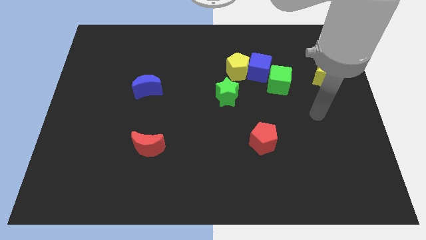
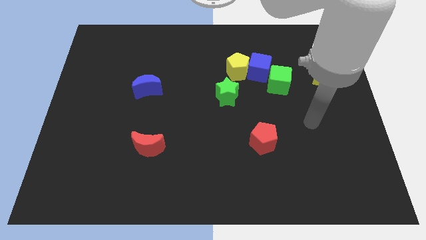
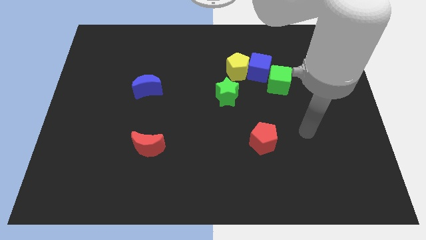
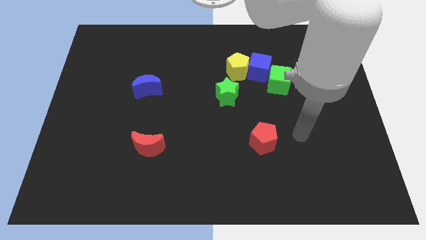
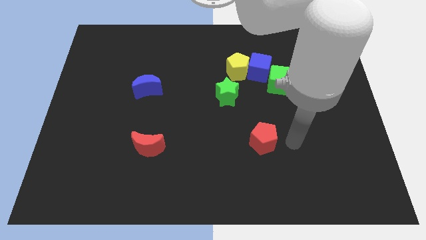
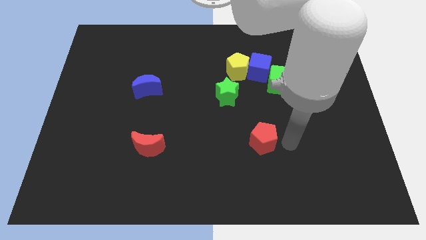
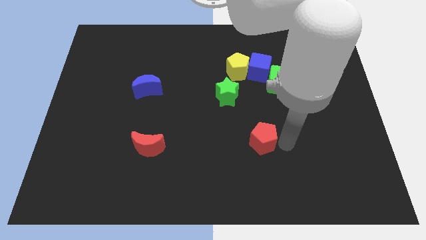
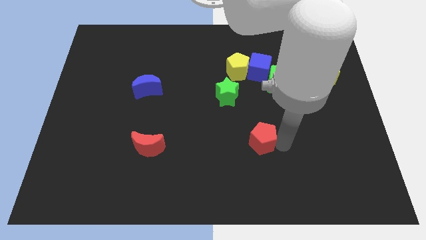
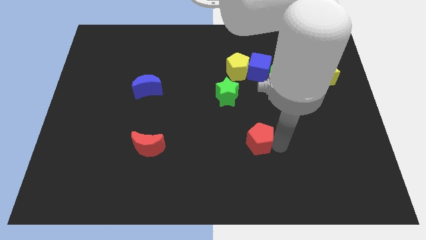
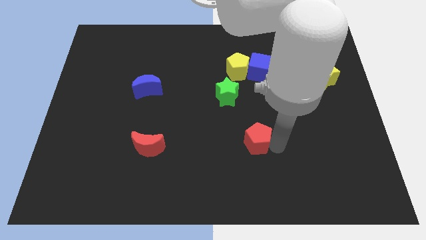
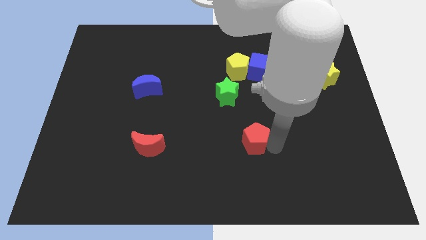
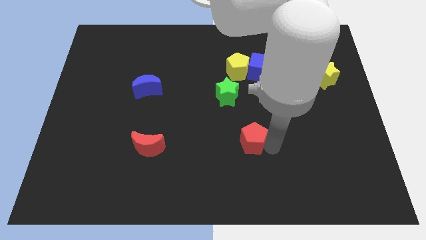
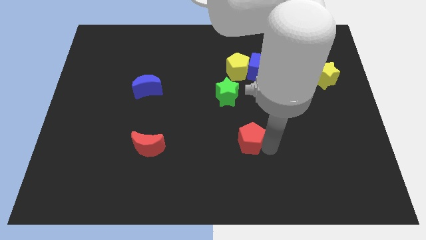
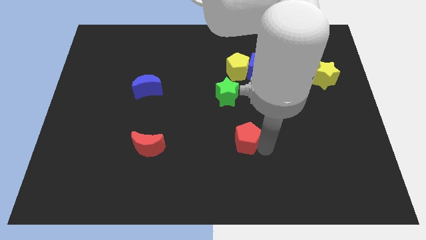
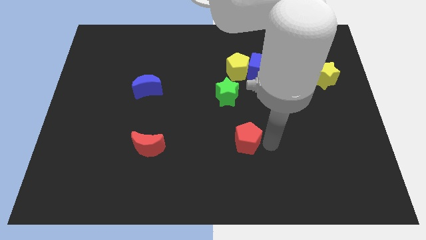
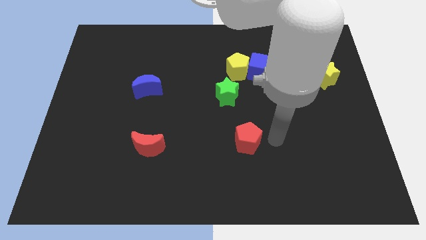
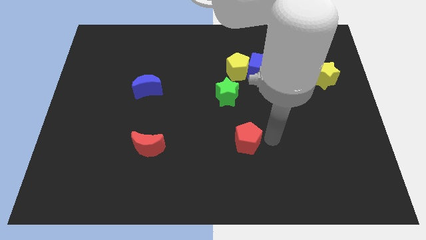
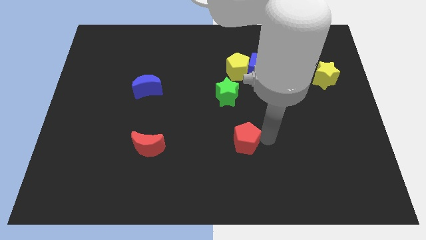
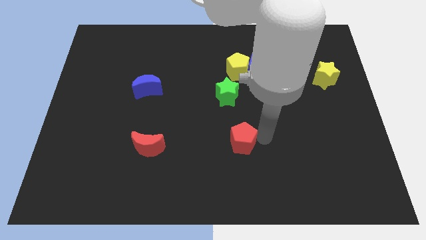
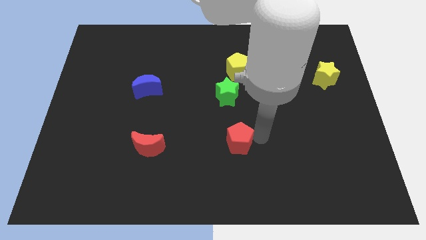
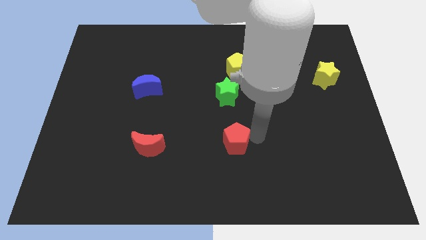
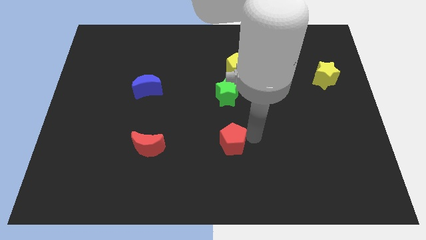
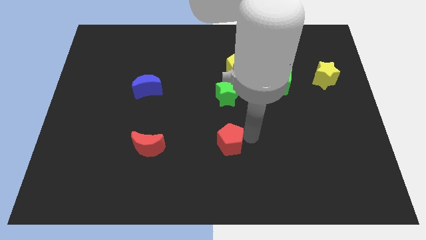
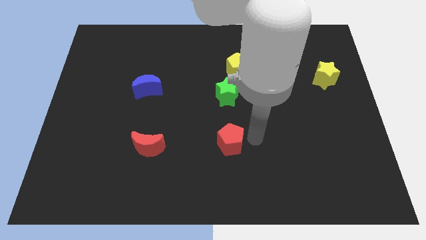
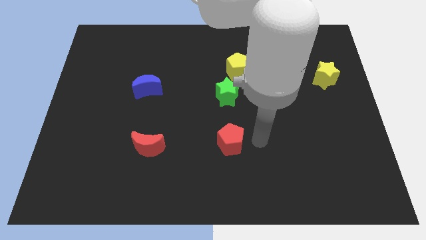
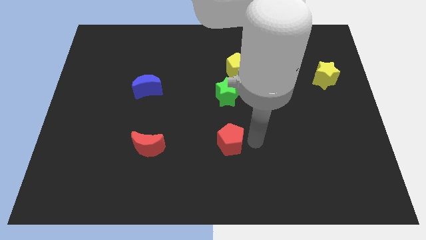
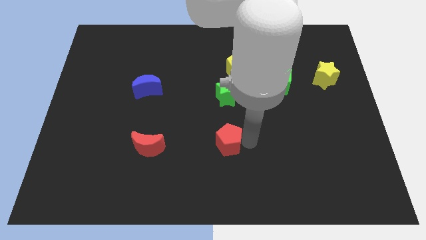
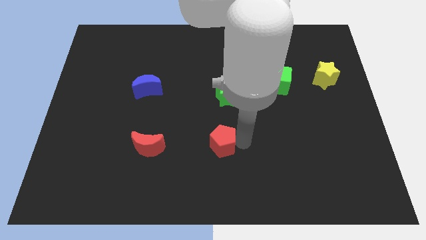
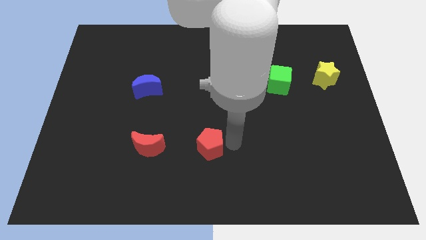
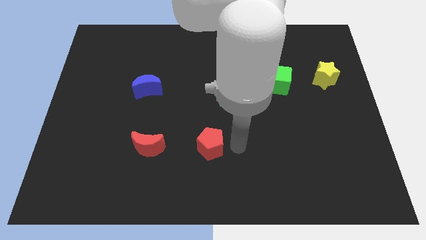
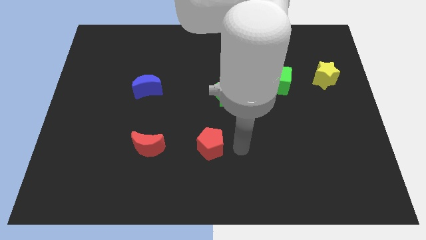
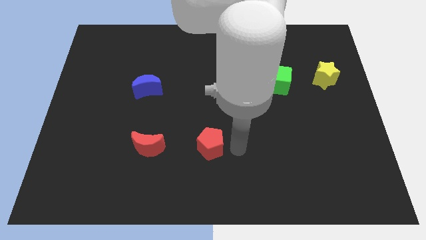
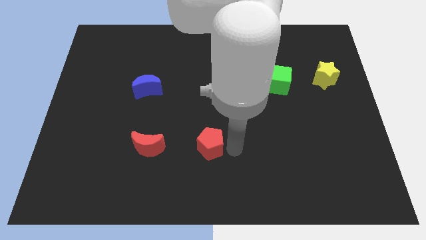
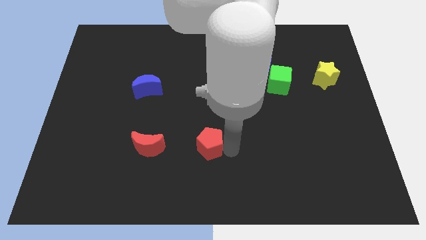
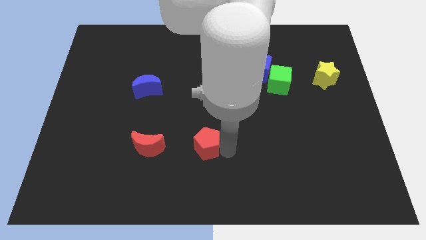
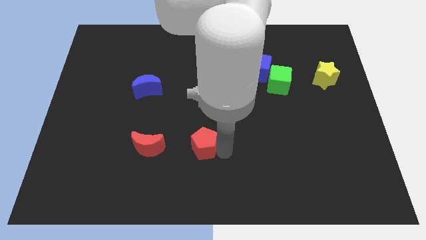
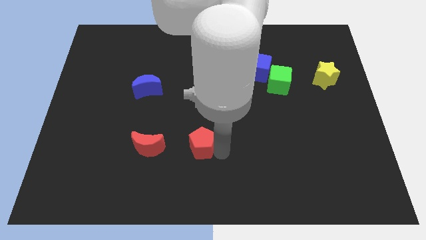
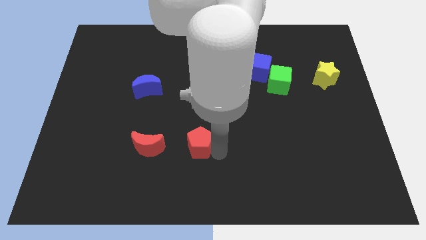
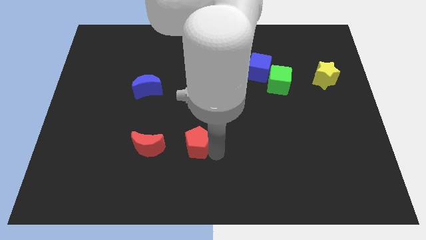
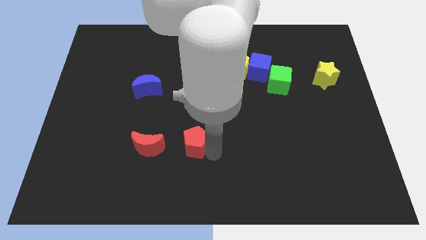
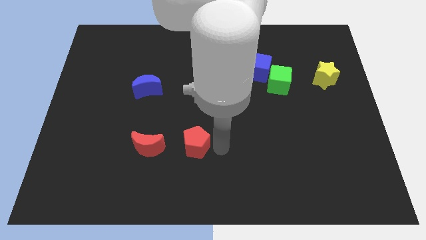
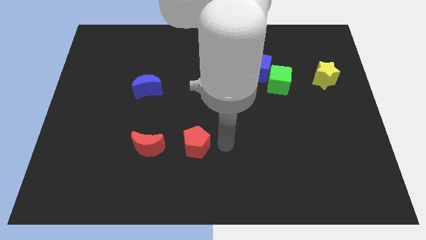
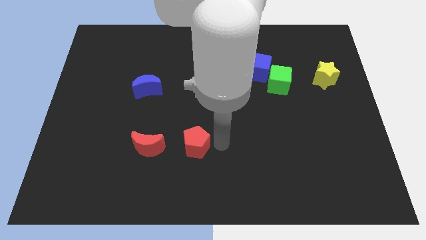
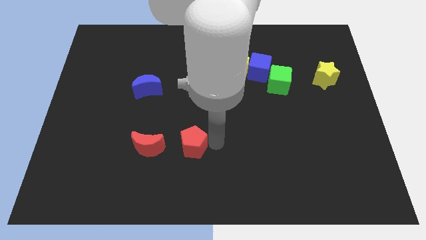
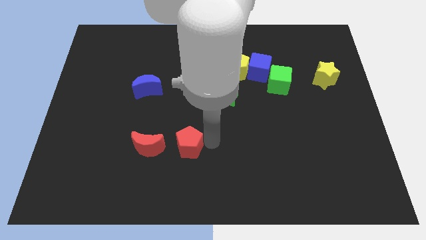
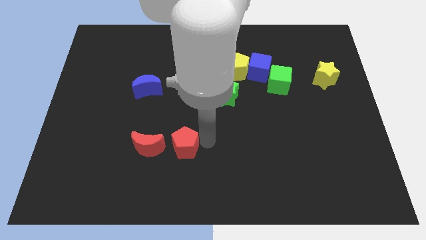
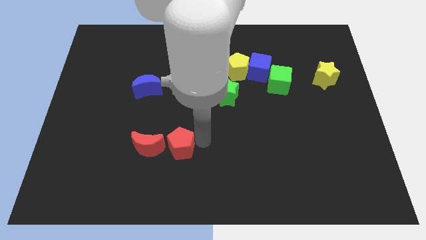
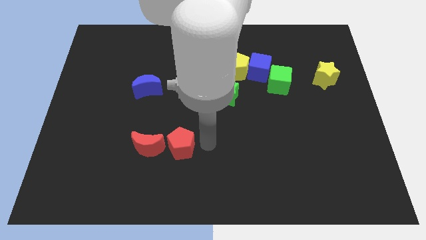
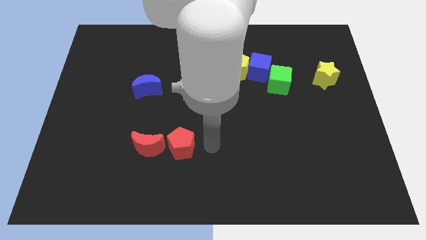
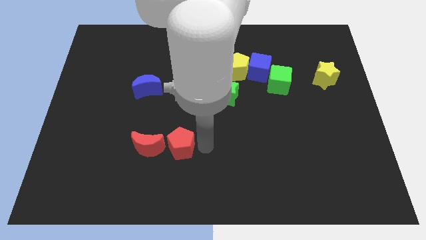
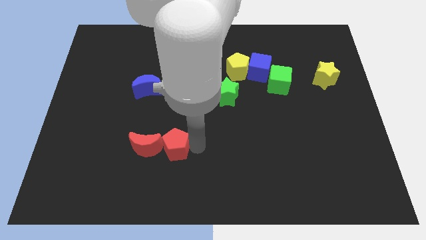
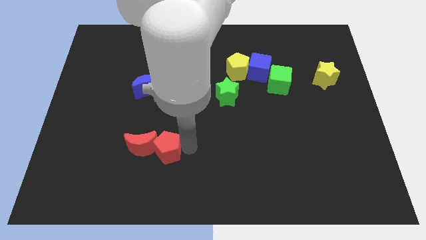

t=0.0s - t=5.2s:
put the red pentagon close to the red moon

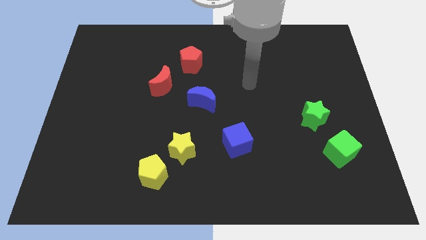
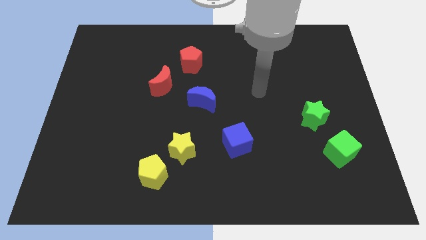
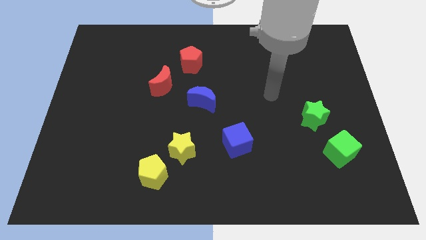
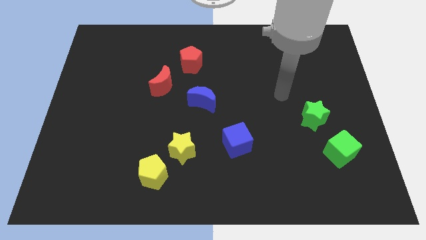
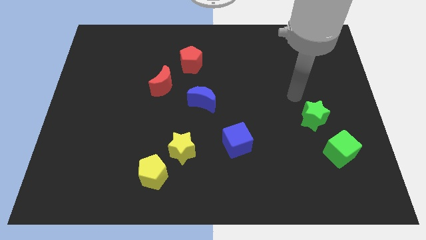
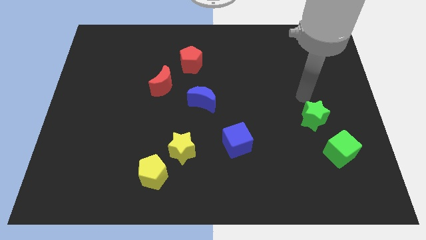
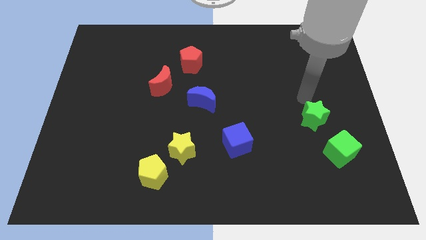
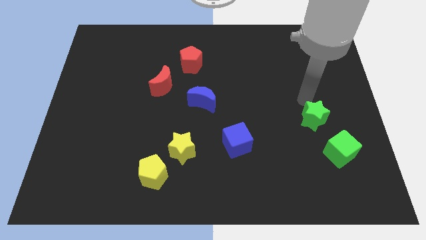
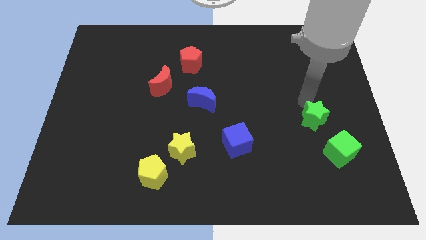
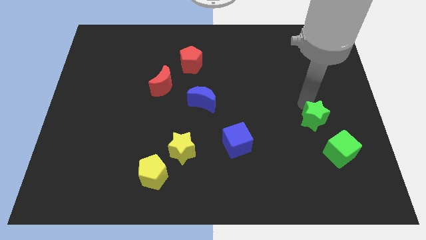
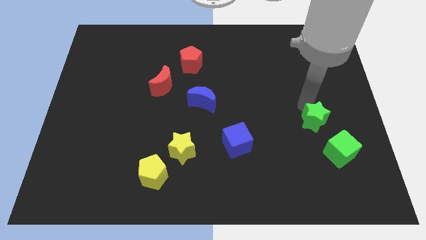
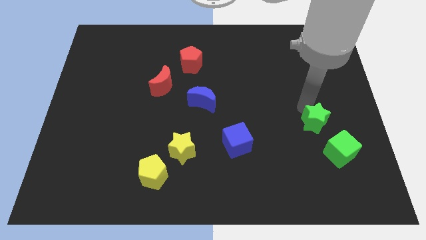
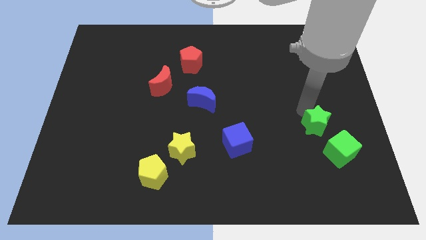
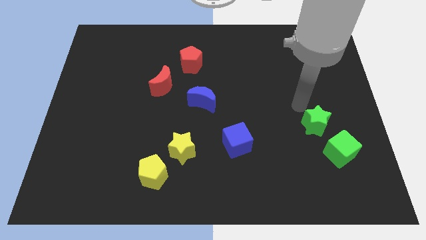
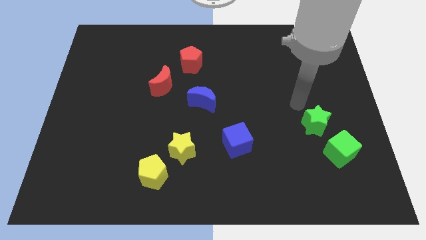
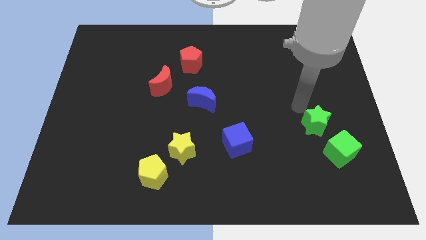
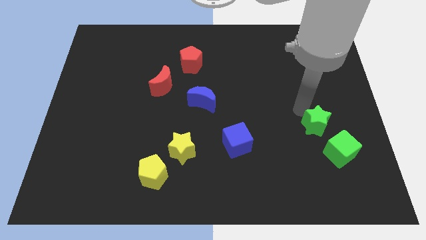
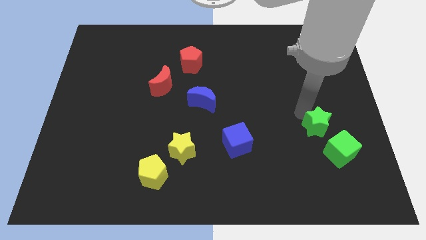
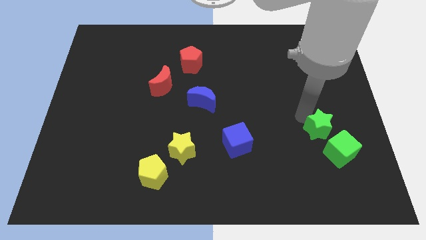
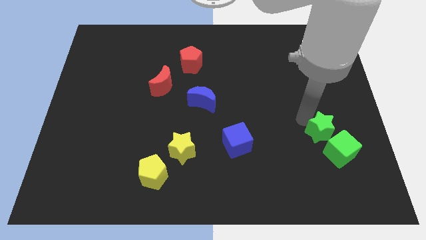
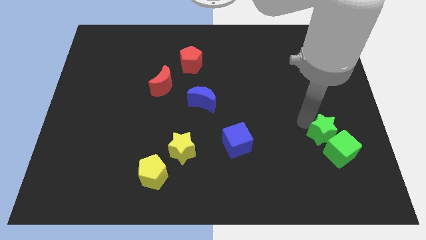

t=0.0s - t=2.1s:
put the green star next to the green cube

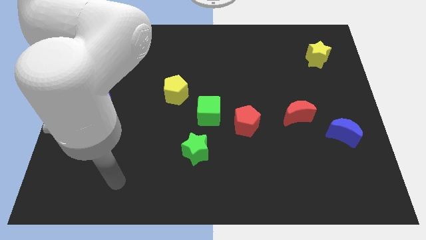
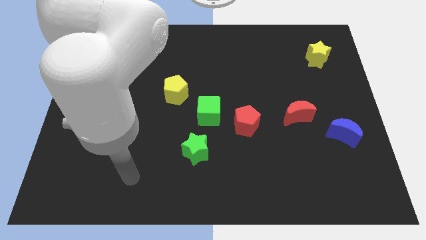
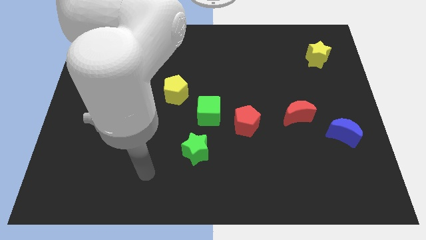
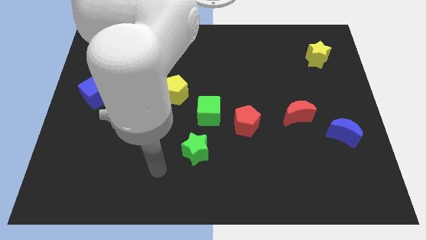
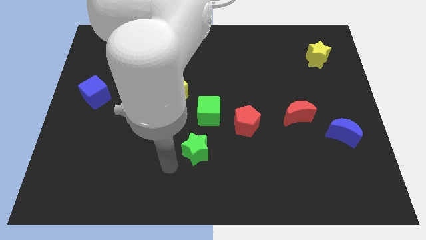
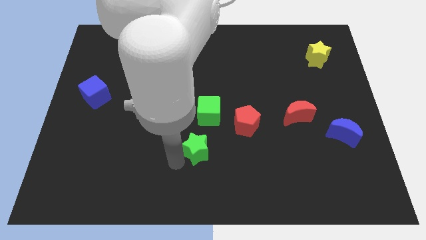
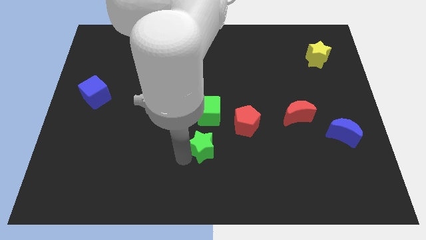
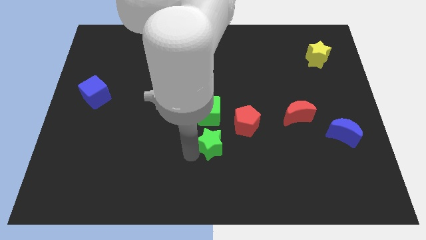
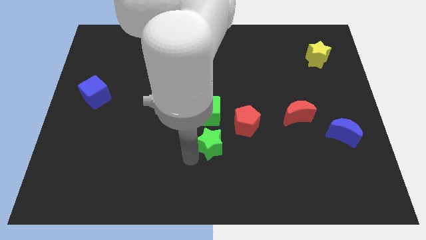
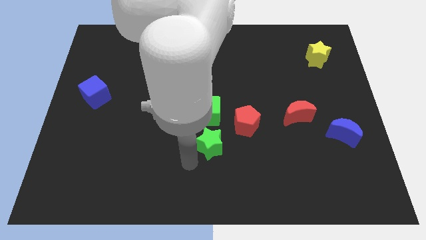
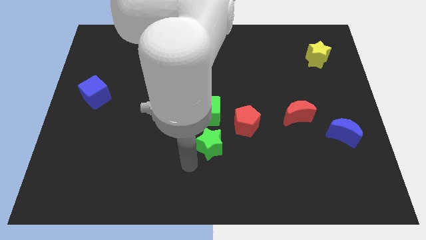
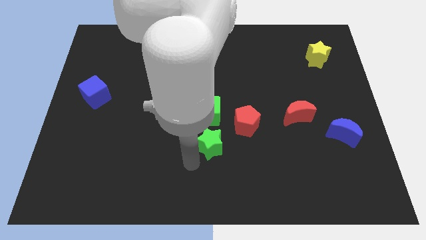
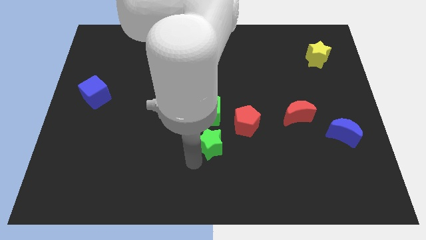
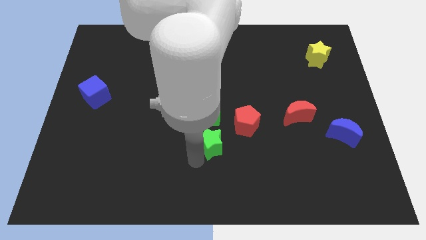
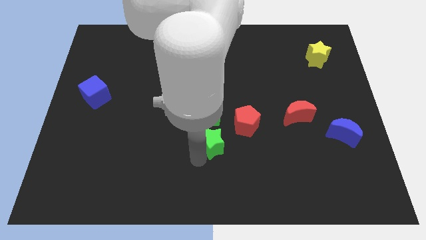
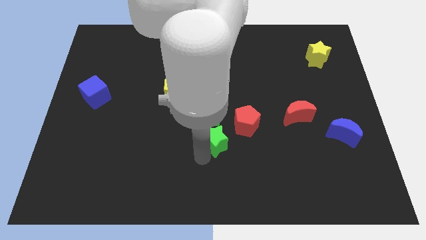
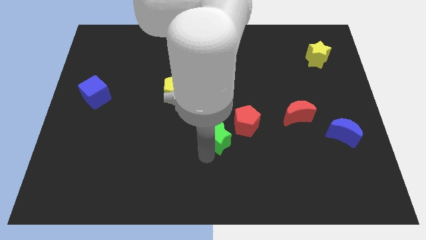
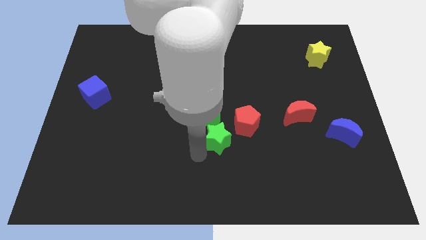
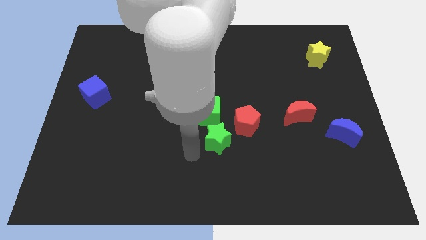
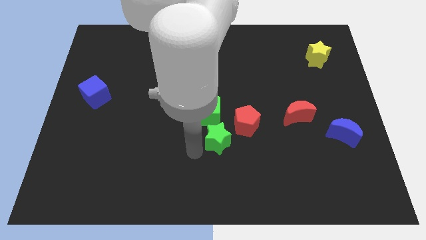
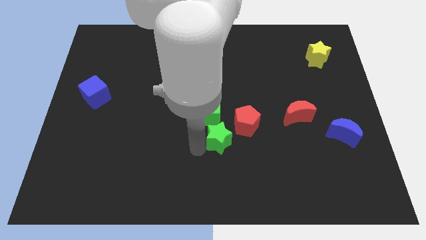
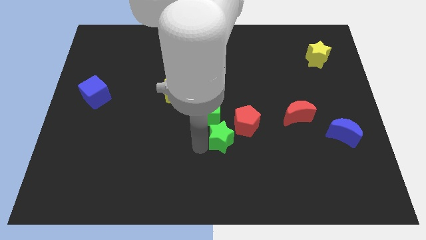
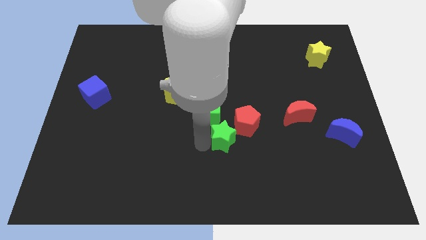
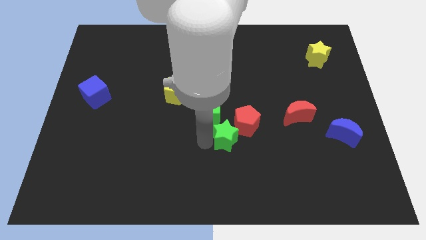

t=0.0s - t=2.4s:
slide the green star to the red pentagon
